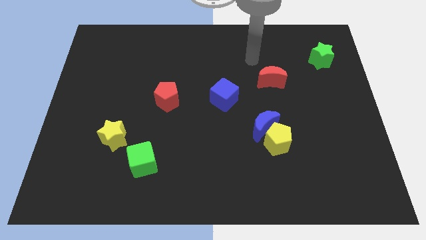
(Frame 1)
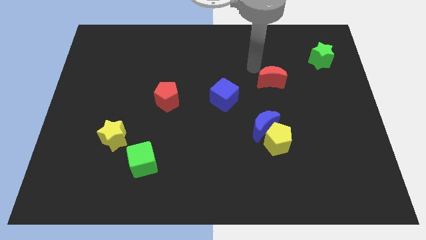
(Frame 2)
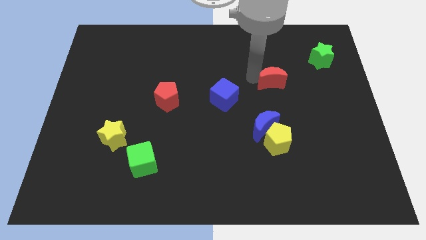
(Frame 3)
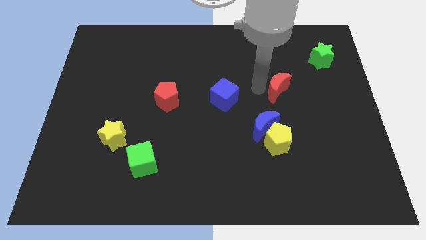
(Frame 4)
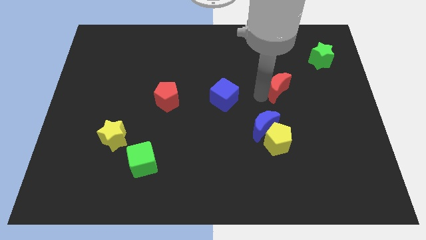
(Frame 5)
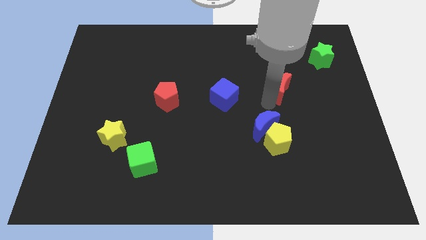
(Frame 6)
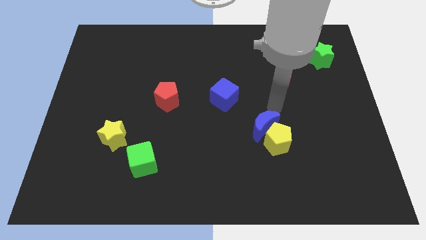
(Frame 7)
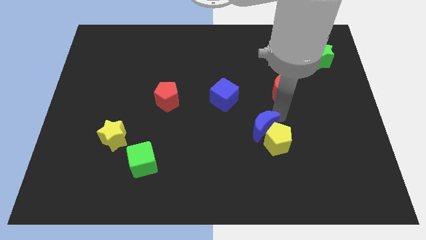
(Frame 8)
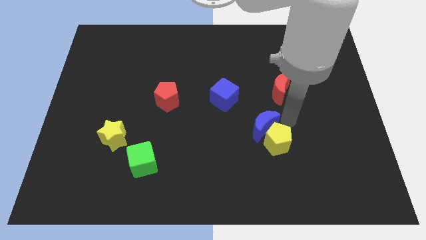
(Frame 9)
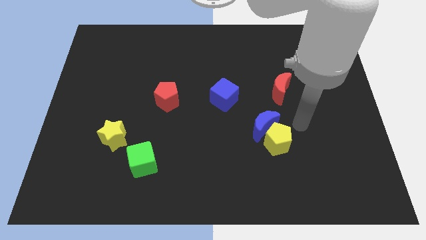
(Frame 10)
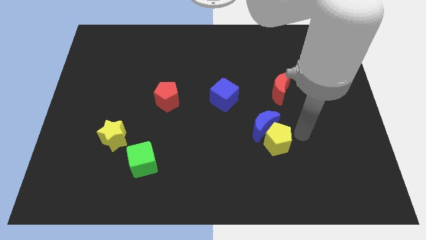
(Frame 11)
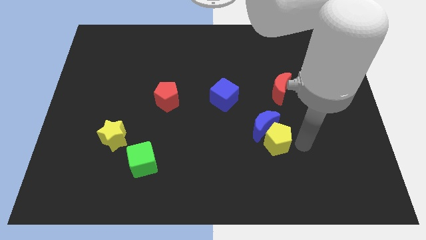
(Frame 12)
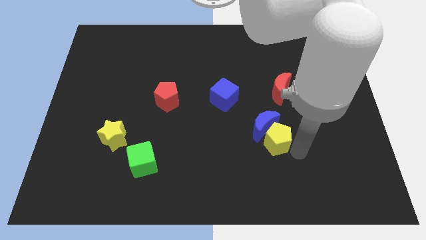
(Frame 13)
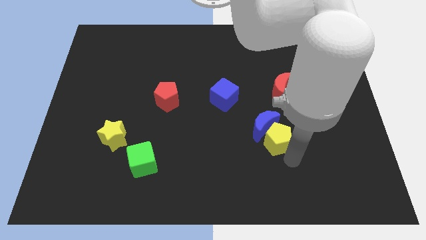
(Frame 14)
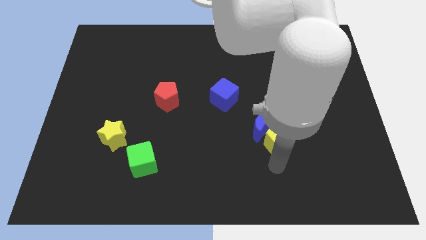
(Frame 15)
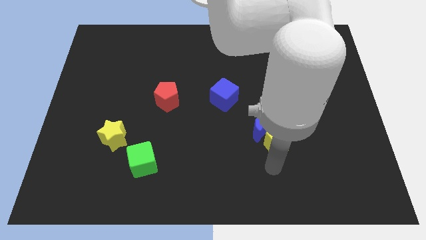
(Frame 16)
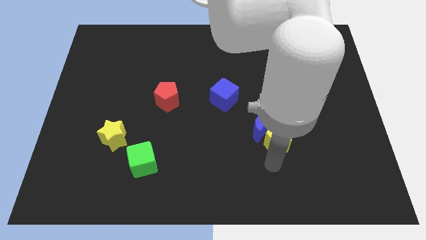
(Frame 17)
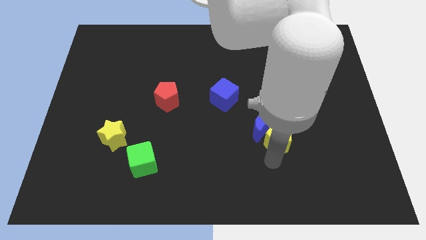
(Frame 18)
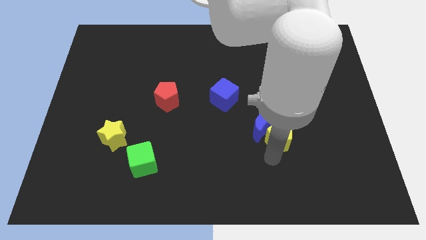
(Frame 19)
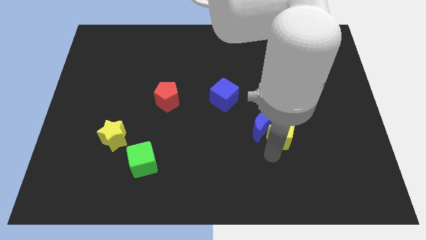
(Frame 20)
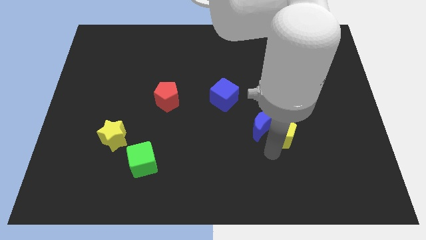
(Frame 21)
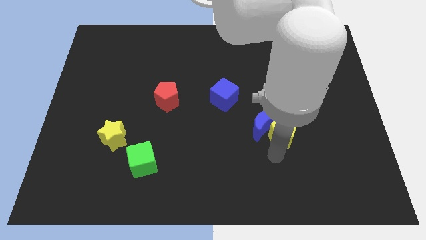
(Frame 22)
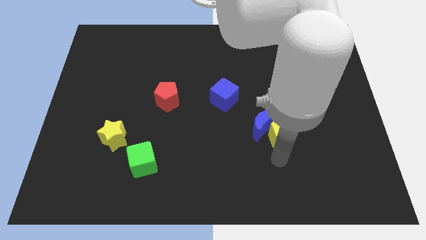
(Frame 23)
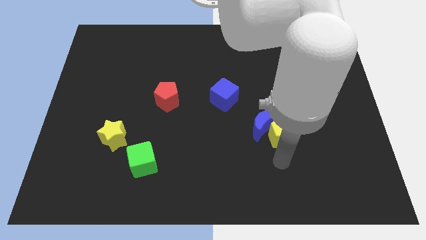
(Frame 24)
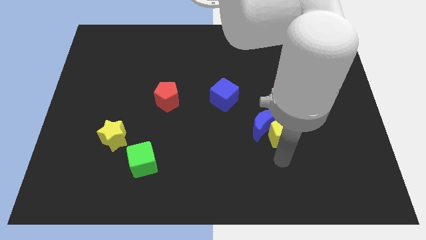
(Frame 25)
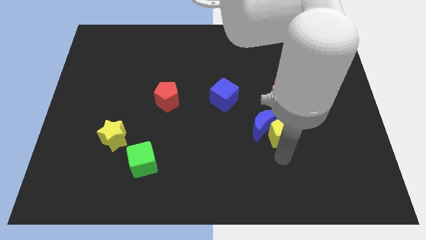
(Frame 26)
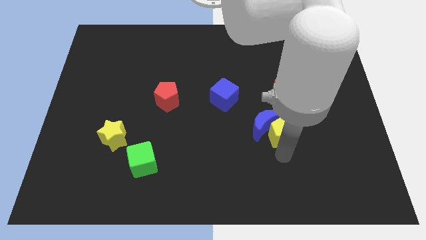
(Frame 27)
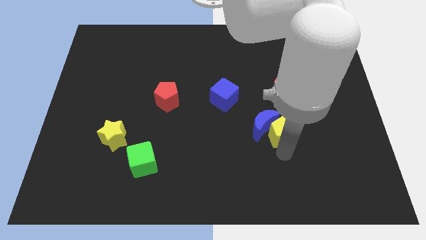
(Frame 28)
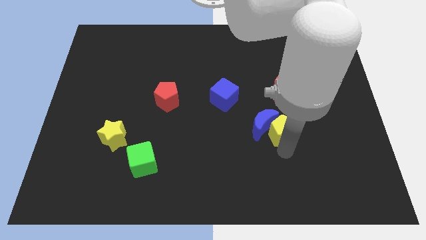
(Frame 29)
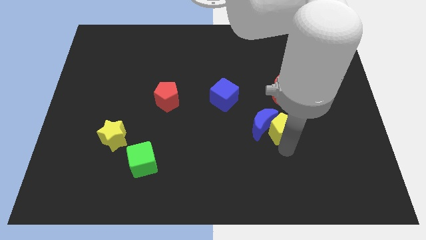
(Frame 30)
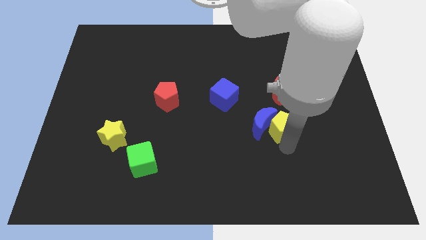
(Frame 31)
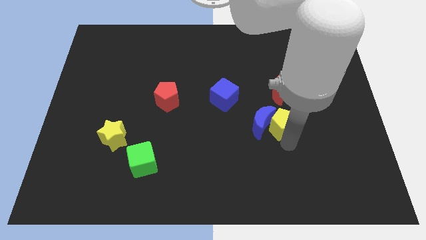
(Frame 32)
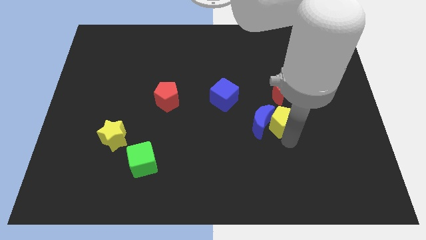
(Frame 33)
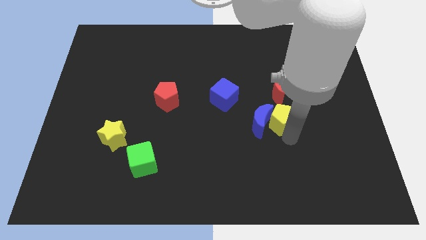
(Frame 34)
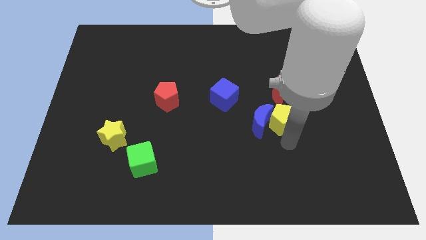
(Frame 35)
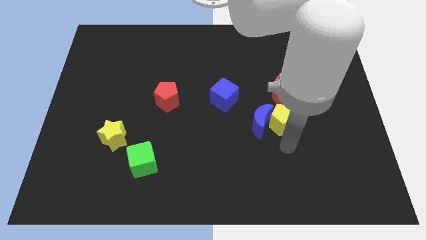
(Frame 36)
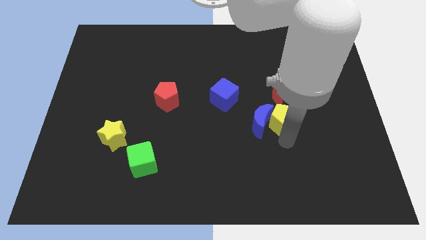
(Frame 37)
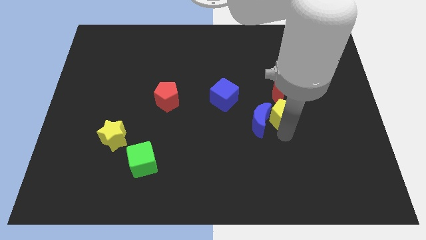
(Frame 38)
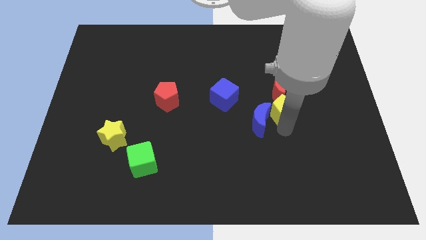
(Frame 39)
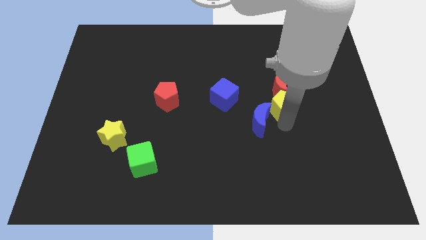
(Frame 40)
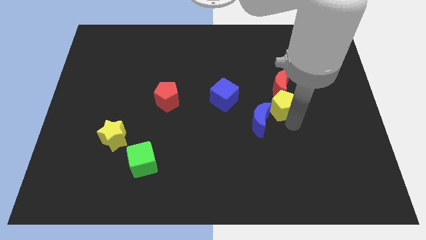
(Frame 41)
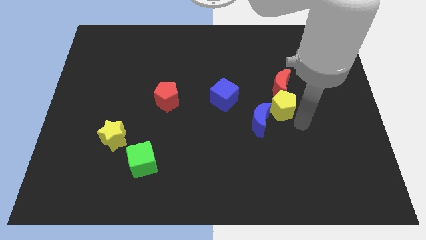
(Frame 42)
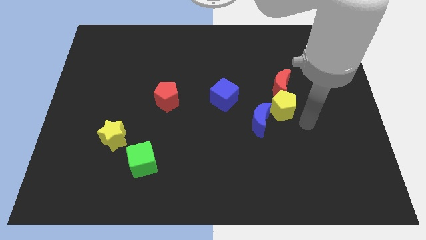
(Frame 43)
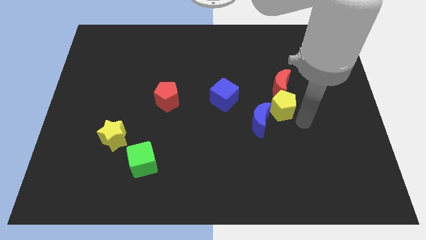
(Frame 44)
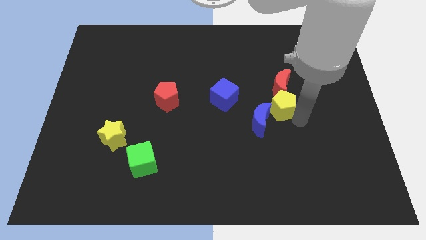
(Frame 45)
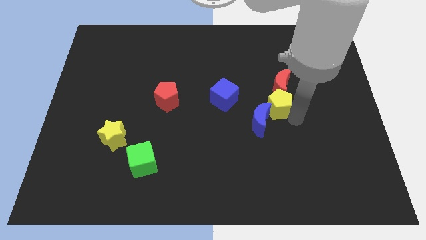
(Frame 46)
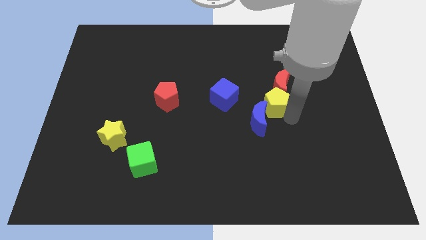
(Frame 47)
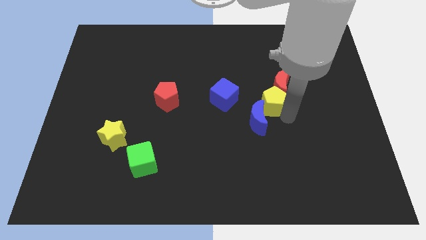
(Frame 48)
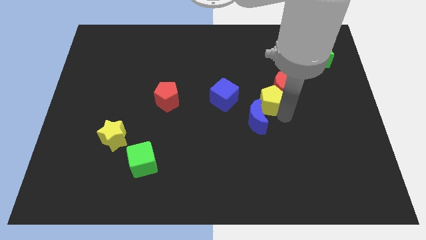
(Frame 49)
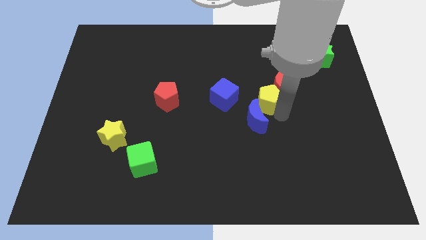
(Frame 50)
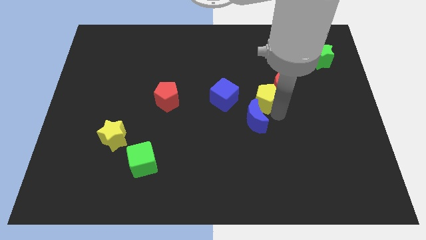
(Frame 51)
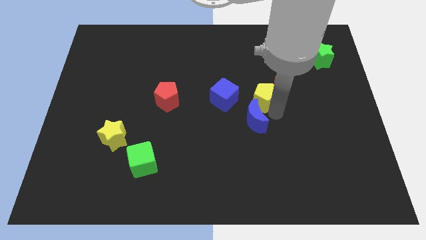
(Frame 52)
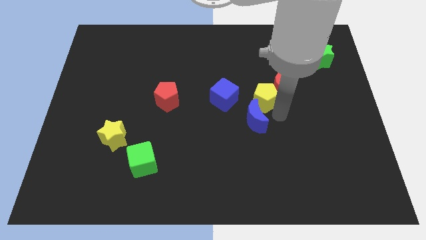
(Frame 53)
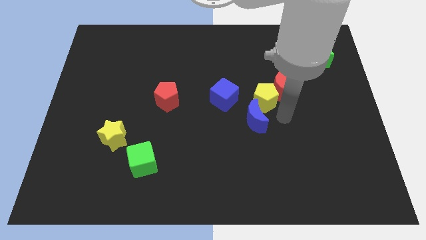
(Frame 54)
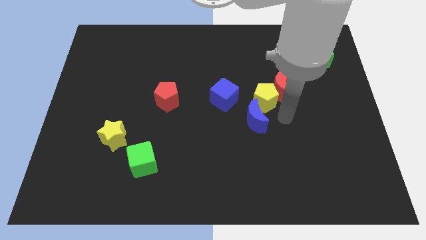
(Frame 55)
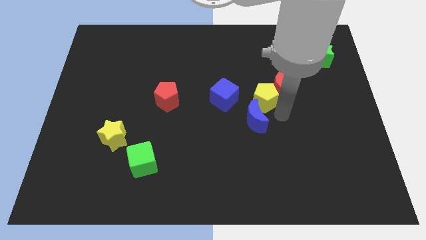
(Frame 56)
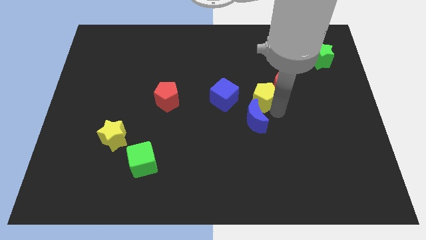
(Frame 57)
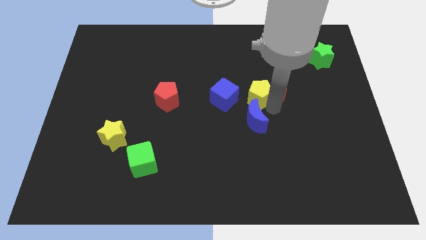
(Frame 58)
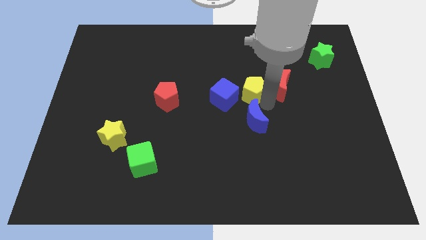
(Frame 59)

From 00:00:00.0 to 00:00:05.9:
push the yellow pentagon to the top right of the blue cube
